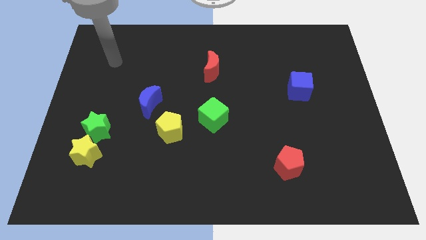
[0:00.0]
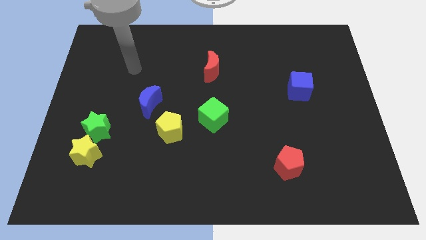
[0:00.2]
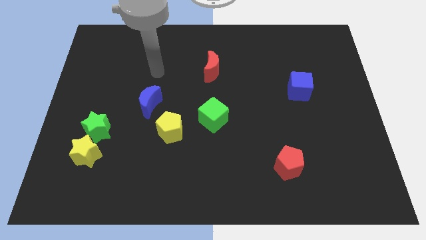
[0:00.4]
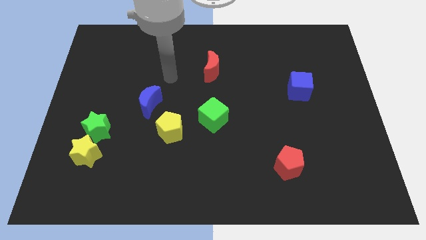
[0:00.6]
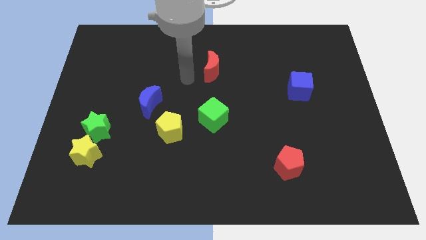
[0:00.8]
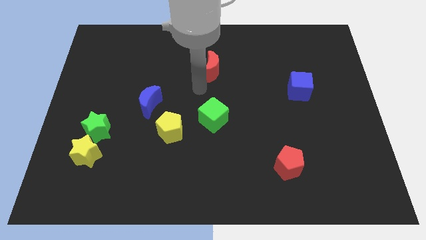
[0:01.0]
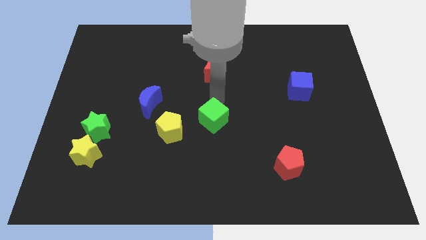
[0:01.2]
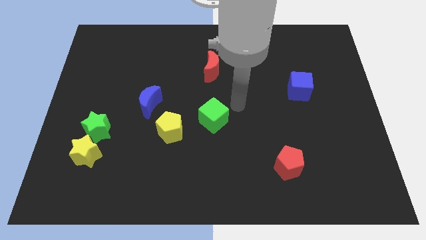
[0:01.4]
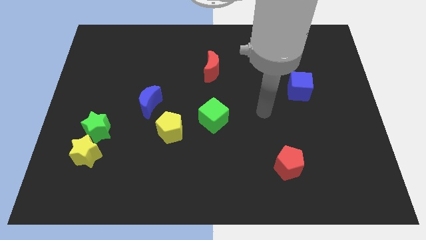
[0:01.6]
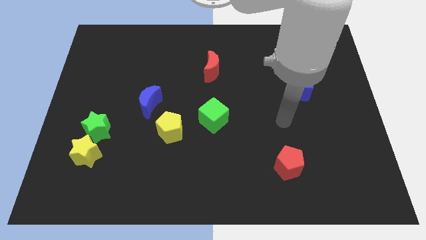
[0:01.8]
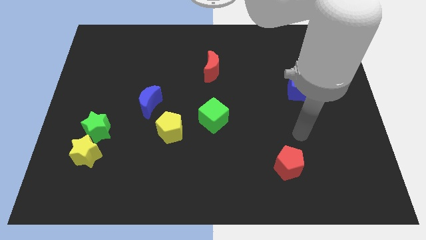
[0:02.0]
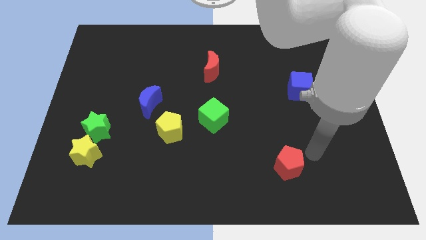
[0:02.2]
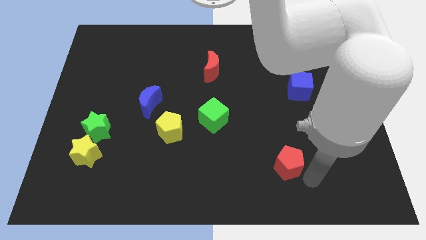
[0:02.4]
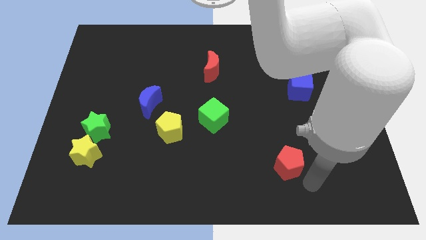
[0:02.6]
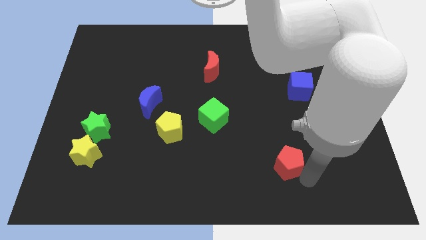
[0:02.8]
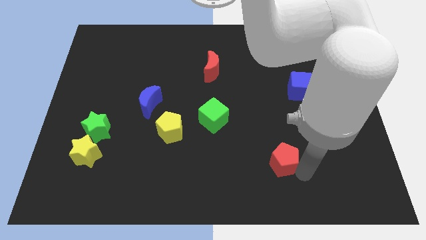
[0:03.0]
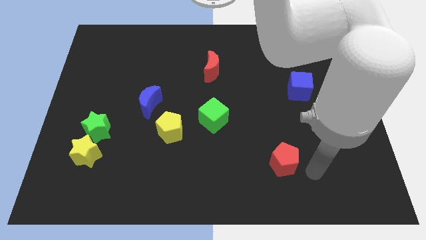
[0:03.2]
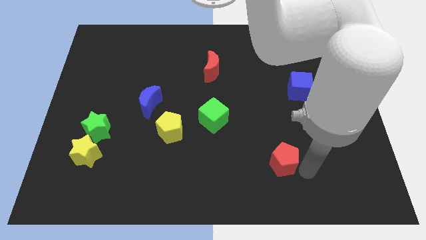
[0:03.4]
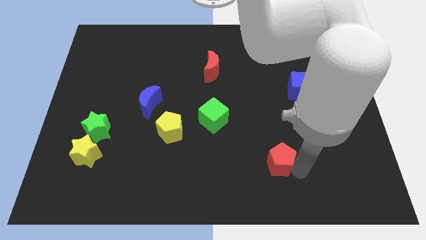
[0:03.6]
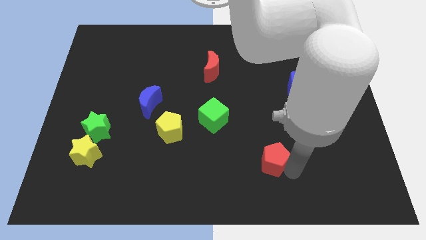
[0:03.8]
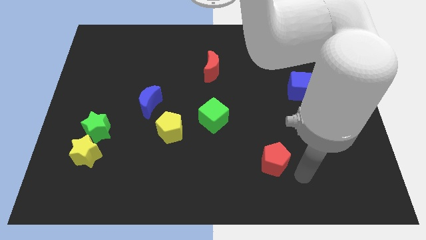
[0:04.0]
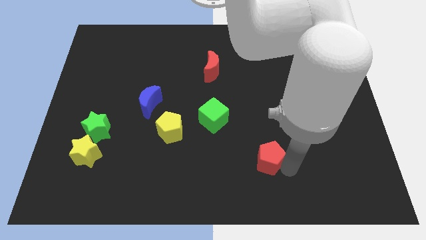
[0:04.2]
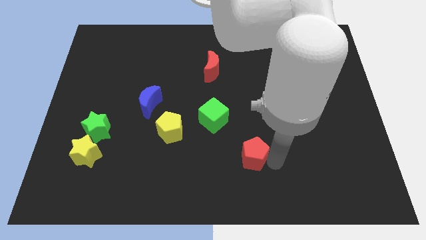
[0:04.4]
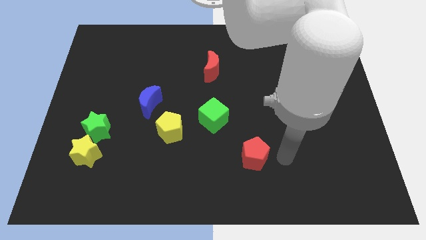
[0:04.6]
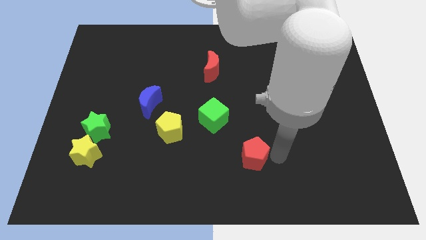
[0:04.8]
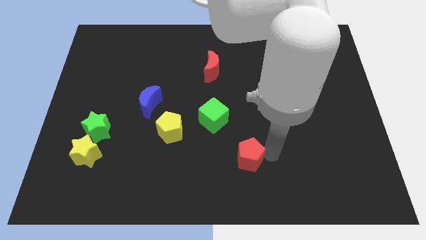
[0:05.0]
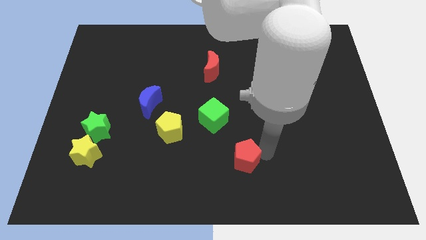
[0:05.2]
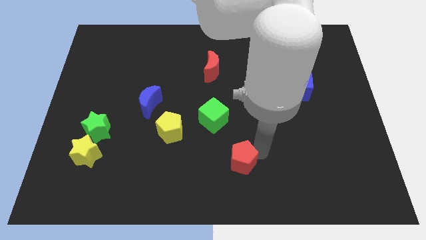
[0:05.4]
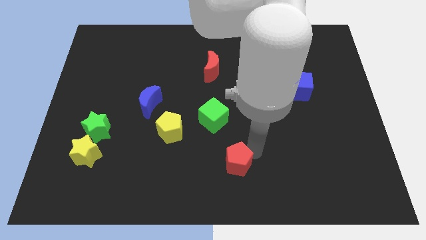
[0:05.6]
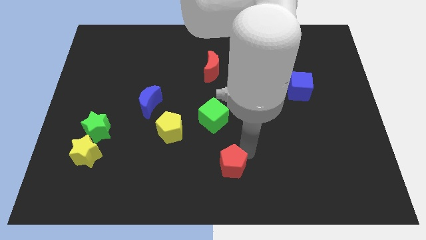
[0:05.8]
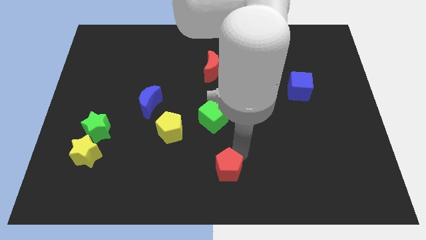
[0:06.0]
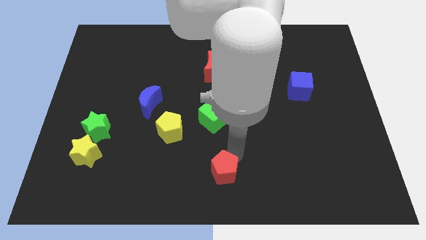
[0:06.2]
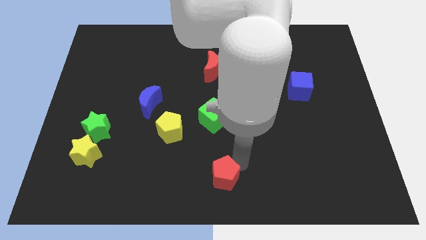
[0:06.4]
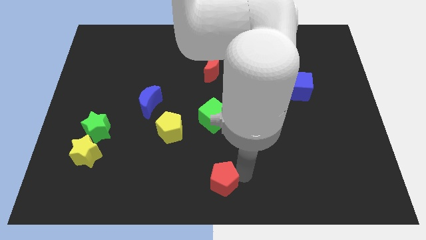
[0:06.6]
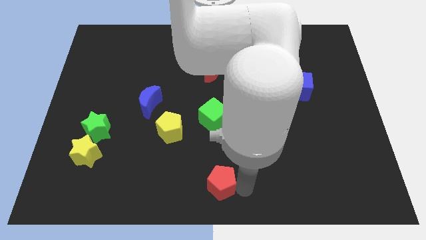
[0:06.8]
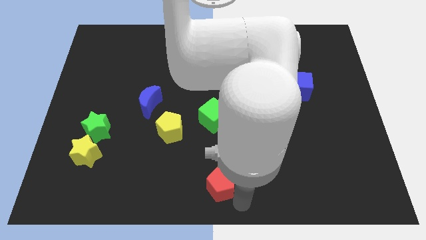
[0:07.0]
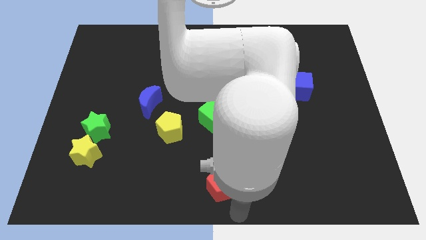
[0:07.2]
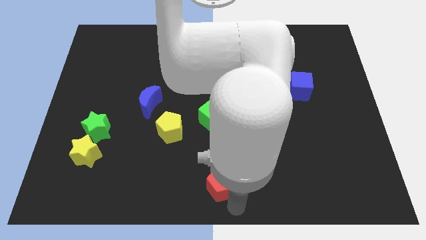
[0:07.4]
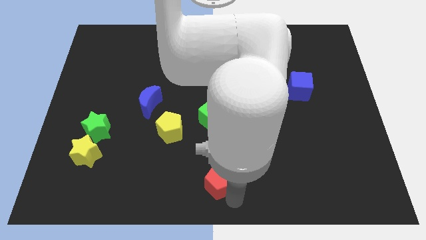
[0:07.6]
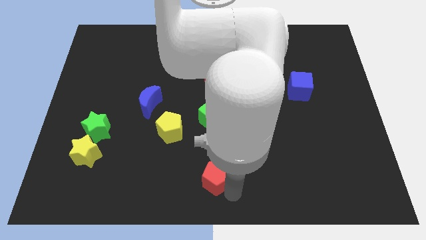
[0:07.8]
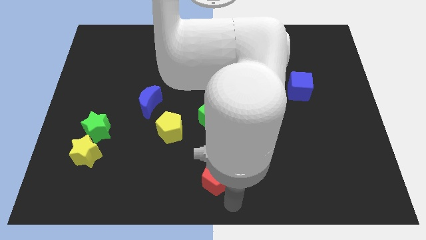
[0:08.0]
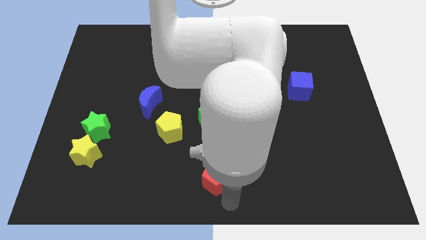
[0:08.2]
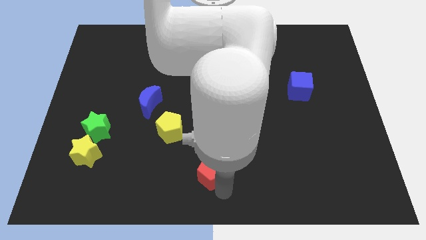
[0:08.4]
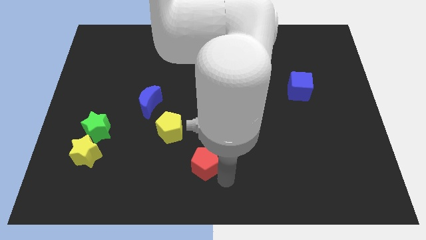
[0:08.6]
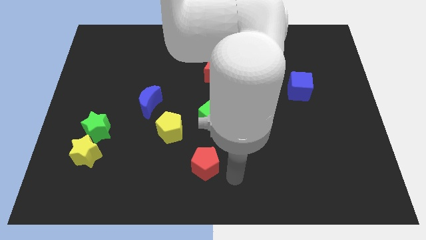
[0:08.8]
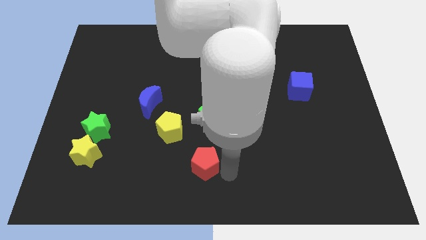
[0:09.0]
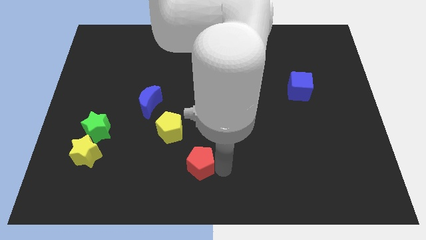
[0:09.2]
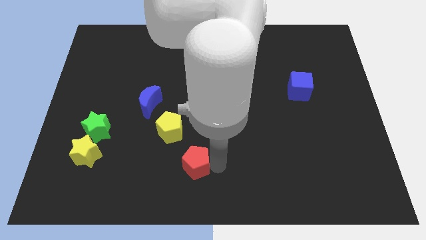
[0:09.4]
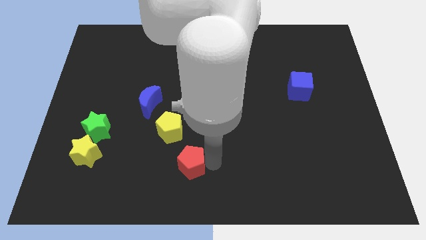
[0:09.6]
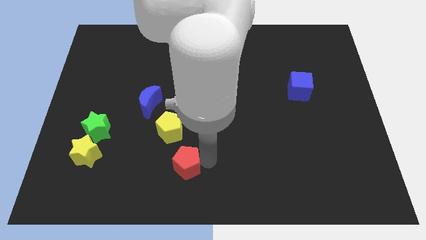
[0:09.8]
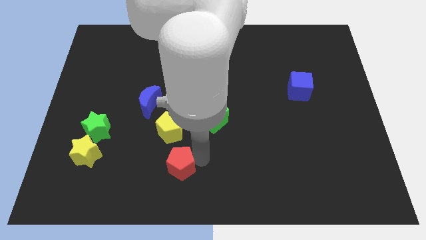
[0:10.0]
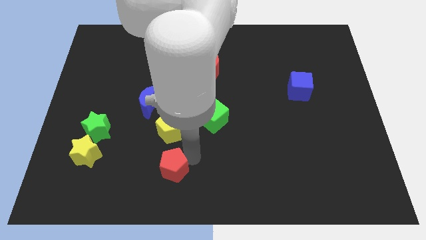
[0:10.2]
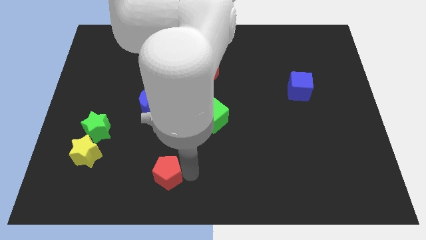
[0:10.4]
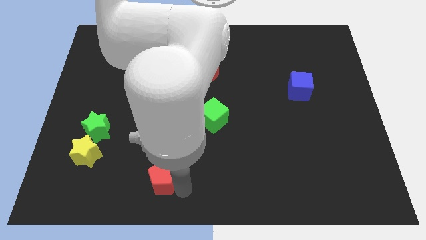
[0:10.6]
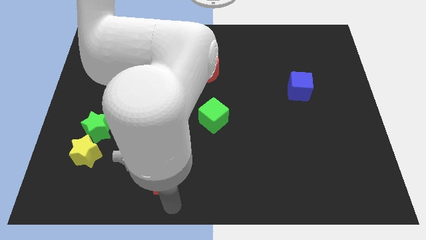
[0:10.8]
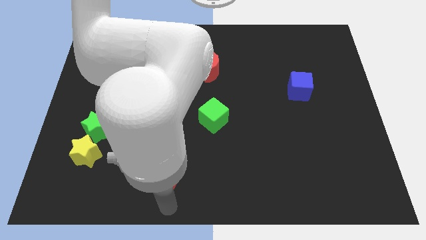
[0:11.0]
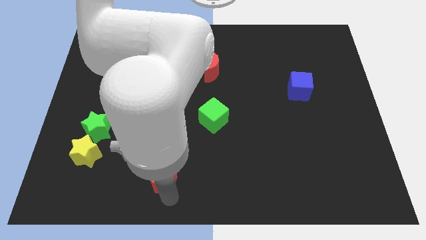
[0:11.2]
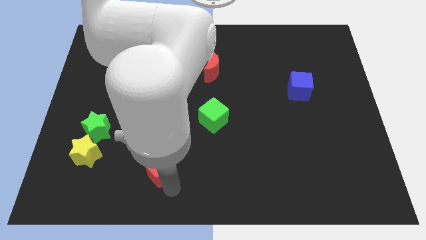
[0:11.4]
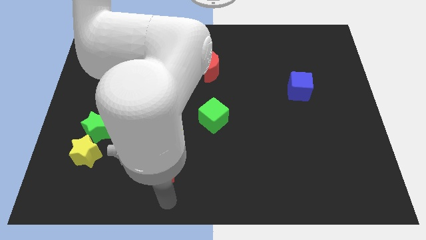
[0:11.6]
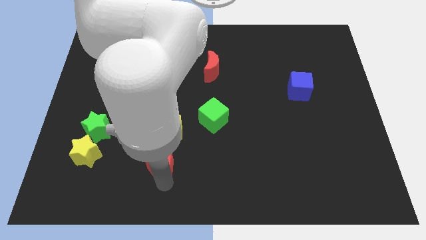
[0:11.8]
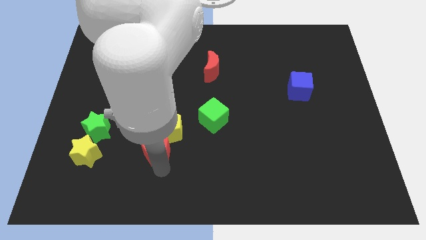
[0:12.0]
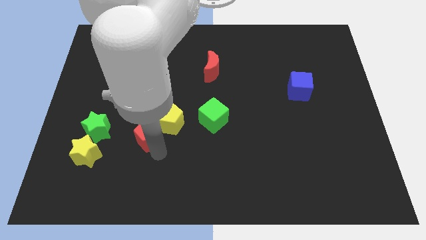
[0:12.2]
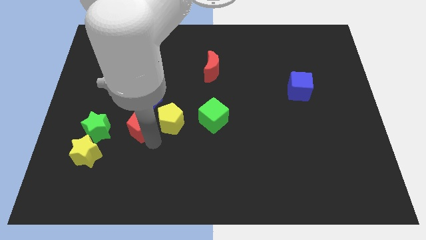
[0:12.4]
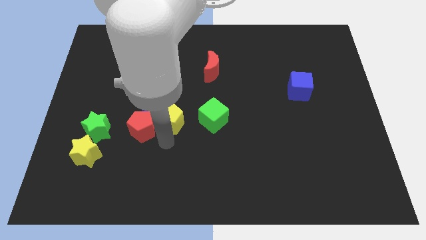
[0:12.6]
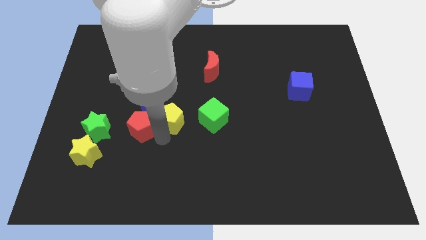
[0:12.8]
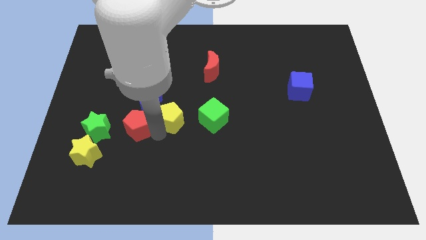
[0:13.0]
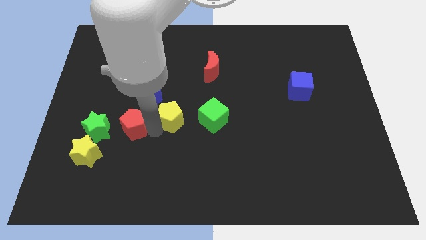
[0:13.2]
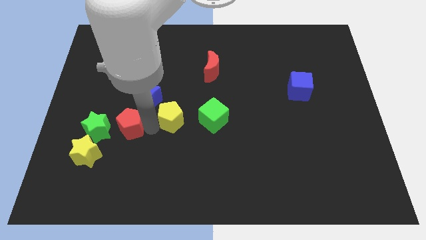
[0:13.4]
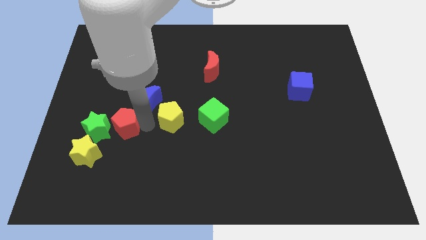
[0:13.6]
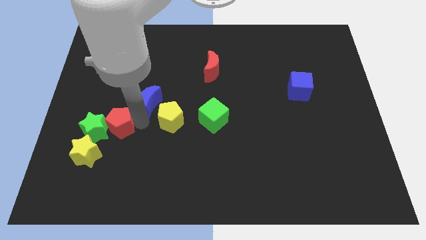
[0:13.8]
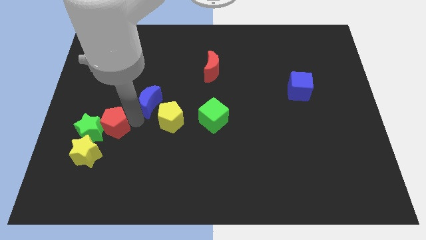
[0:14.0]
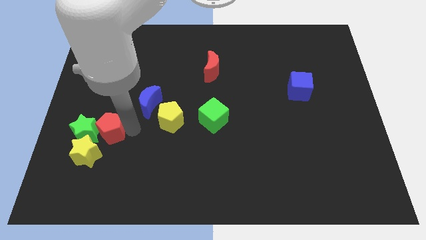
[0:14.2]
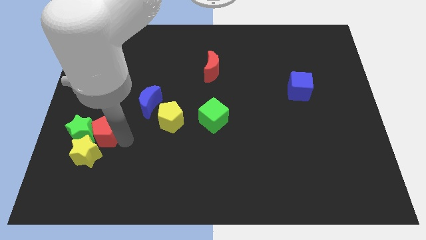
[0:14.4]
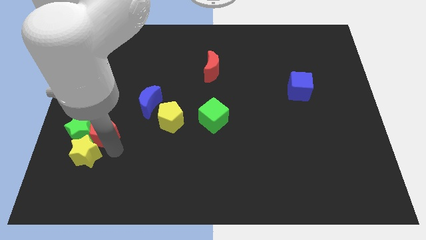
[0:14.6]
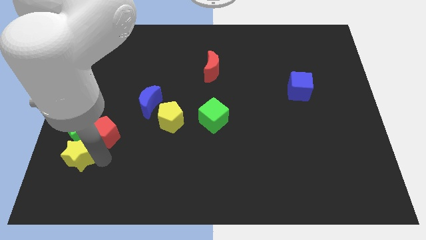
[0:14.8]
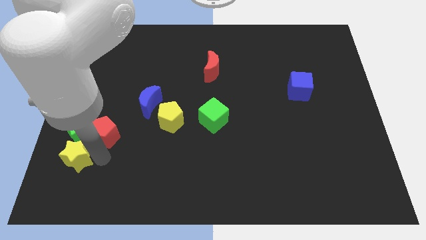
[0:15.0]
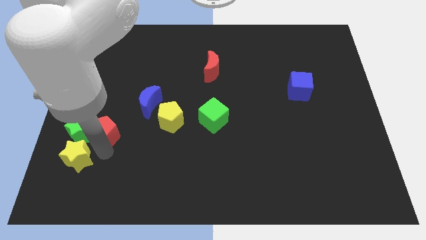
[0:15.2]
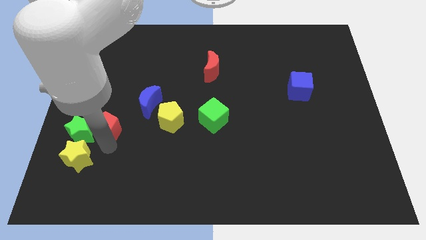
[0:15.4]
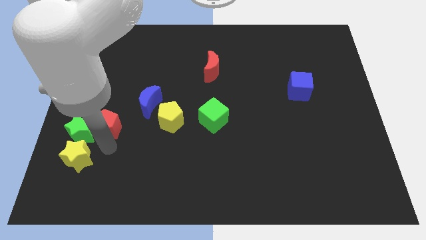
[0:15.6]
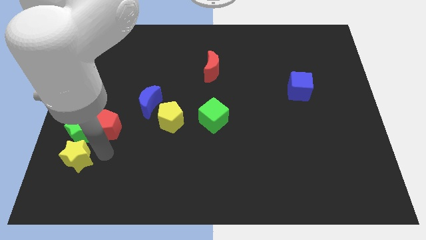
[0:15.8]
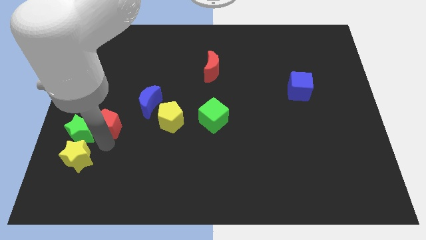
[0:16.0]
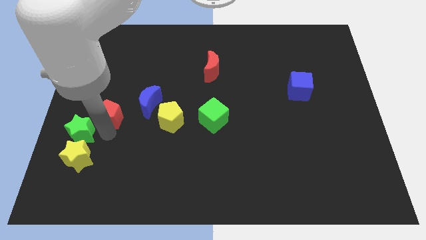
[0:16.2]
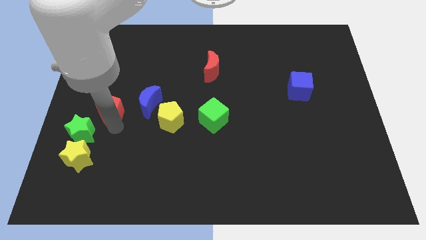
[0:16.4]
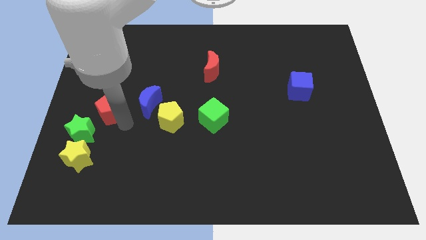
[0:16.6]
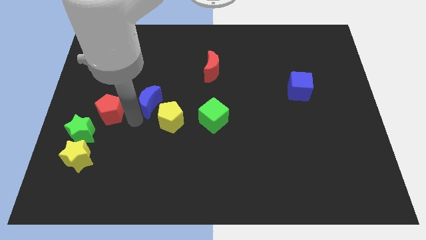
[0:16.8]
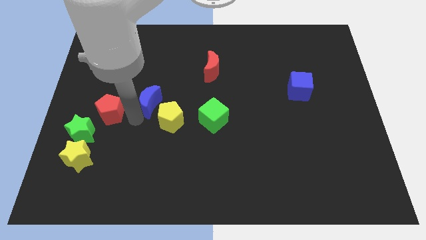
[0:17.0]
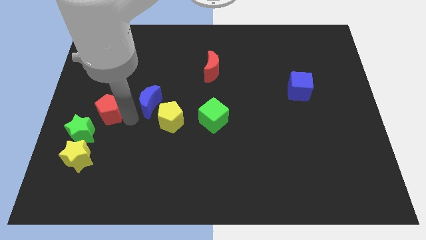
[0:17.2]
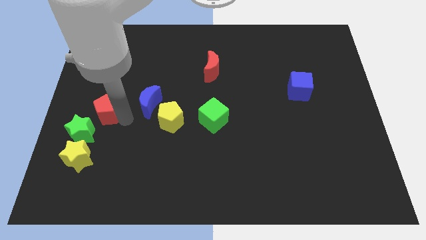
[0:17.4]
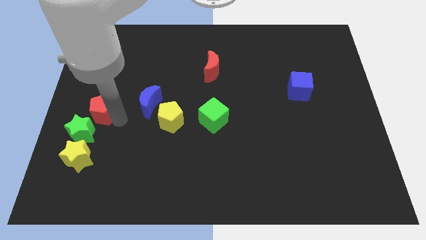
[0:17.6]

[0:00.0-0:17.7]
push the red pentagon to the left side
